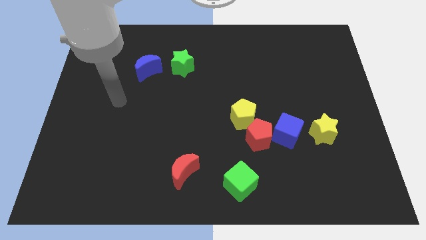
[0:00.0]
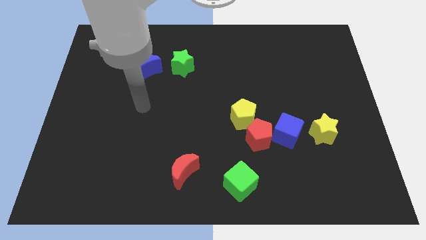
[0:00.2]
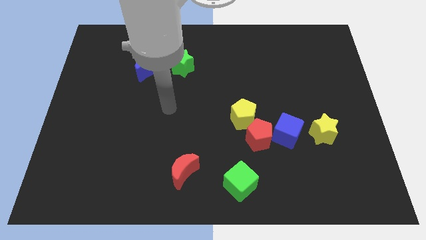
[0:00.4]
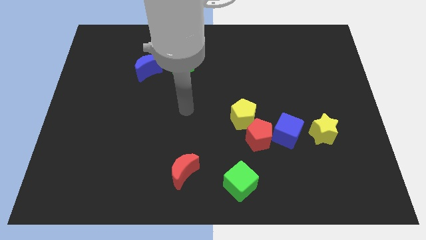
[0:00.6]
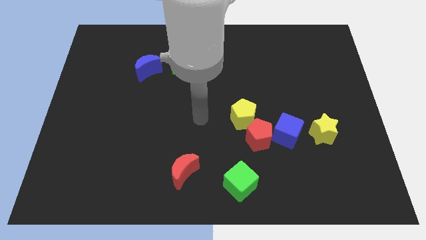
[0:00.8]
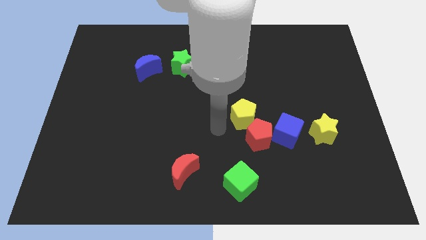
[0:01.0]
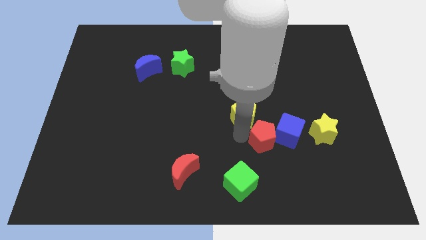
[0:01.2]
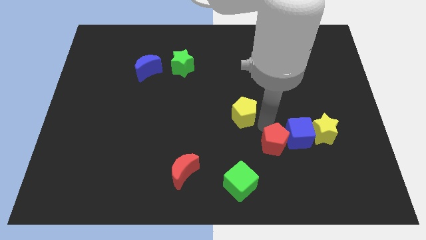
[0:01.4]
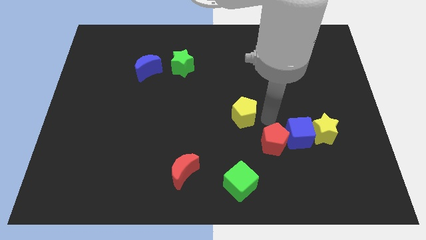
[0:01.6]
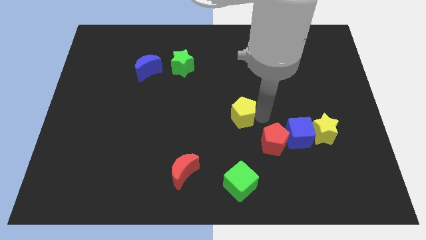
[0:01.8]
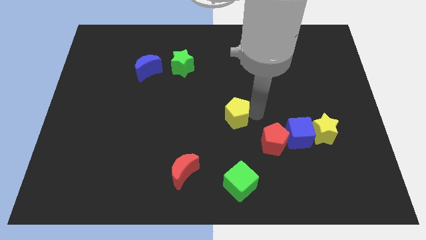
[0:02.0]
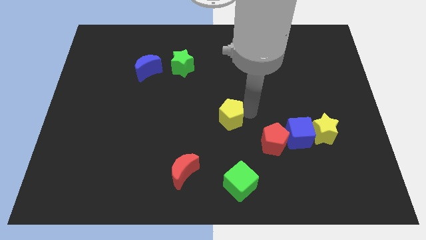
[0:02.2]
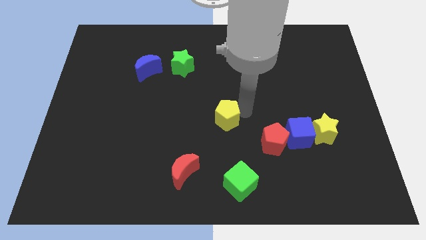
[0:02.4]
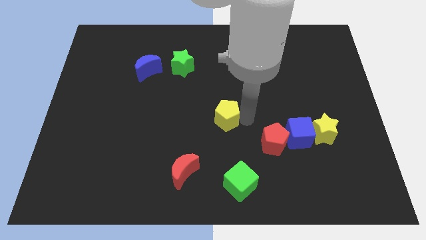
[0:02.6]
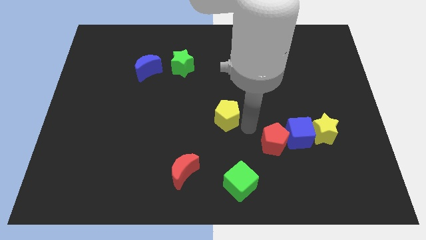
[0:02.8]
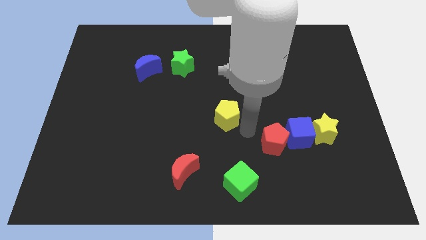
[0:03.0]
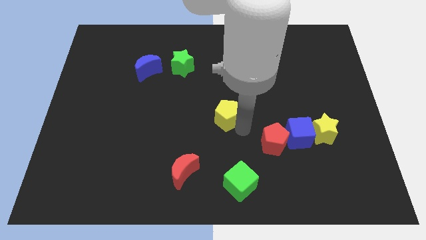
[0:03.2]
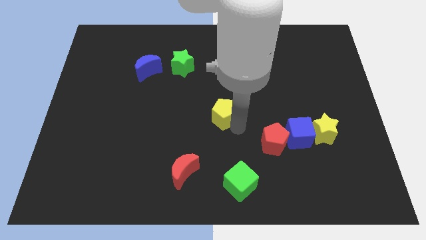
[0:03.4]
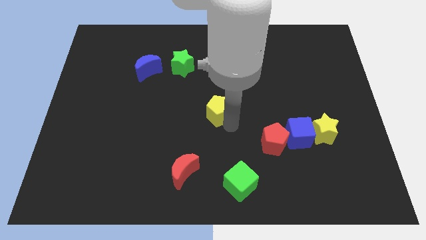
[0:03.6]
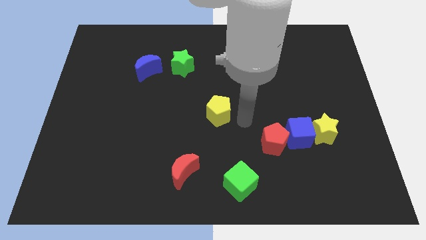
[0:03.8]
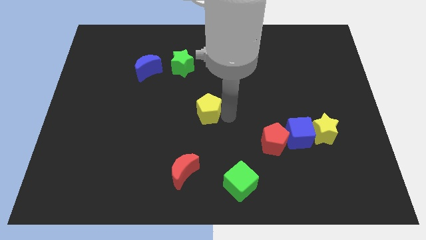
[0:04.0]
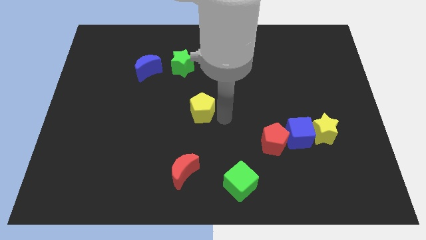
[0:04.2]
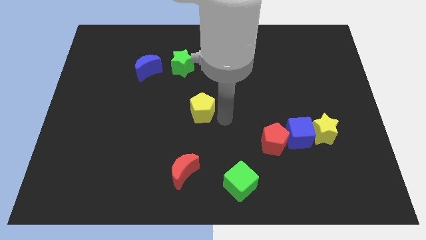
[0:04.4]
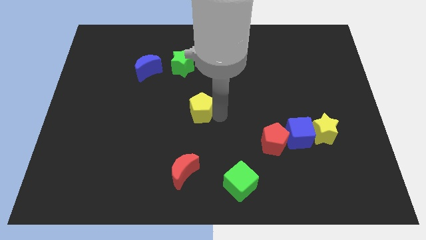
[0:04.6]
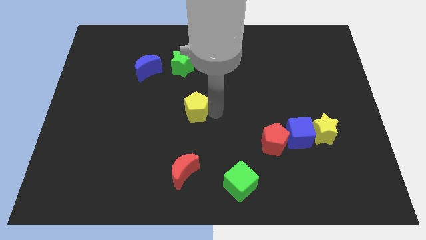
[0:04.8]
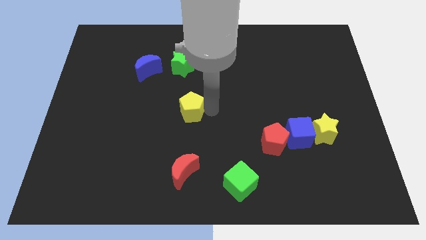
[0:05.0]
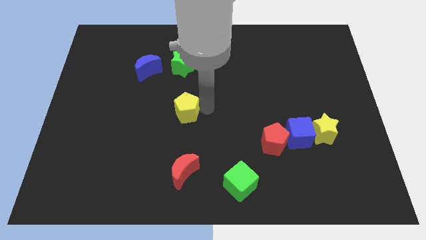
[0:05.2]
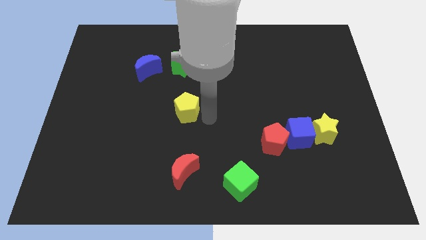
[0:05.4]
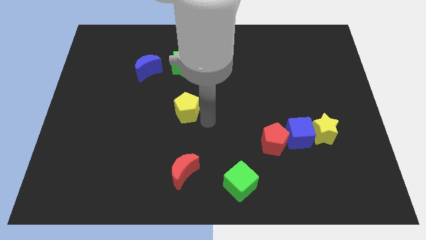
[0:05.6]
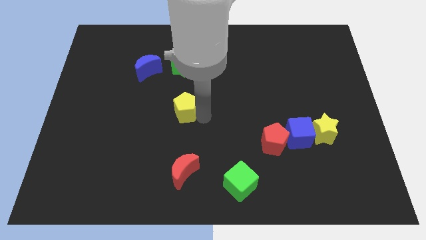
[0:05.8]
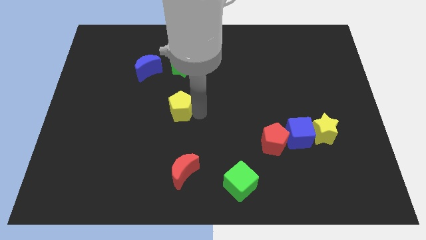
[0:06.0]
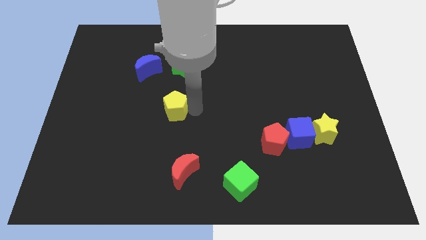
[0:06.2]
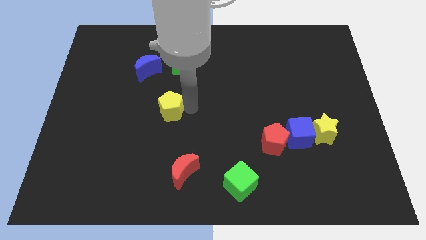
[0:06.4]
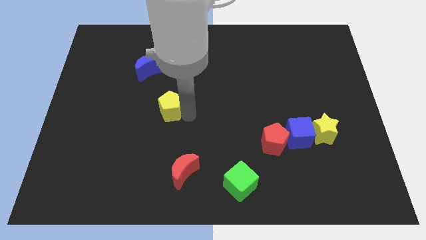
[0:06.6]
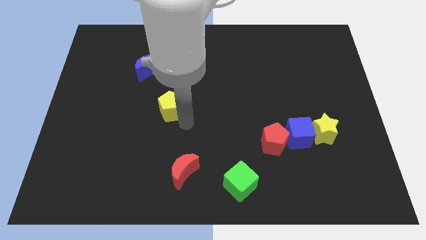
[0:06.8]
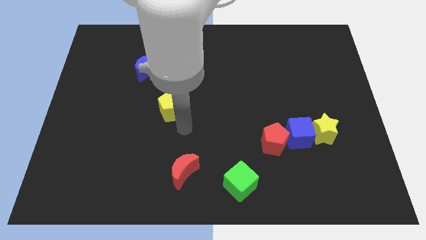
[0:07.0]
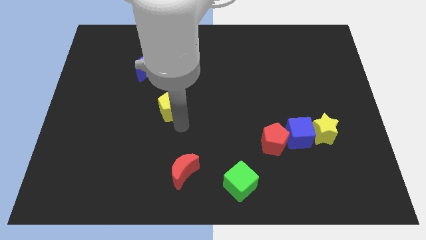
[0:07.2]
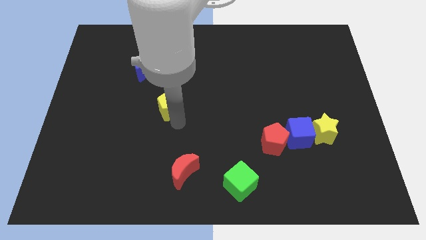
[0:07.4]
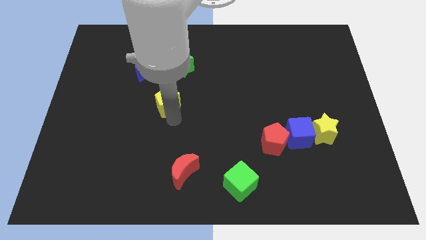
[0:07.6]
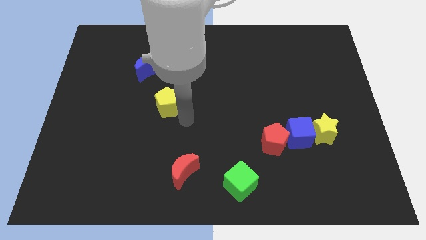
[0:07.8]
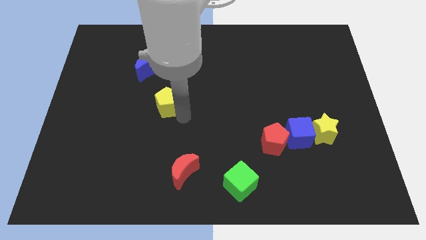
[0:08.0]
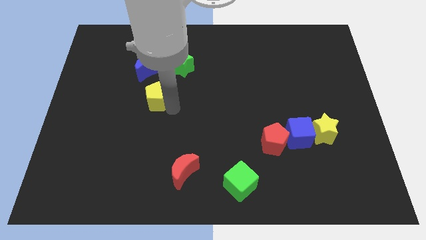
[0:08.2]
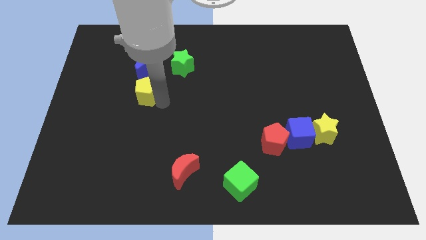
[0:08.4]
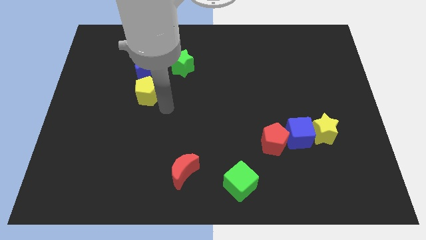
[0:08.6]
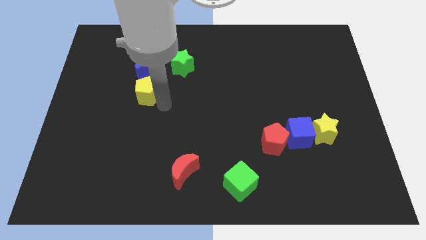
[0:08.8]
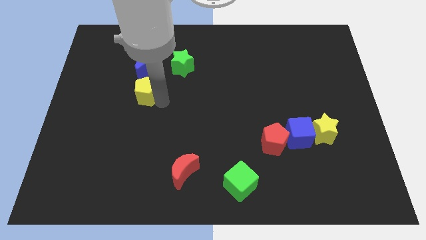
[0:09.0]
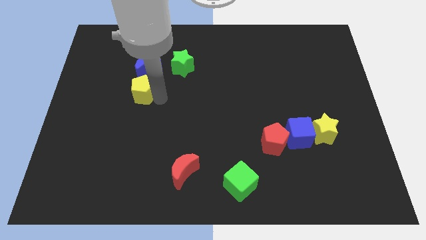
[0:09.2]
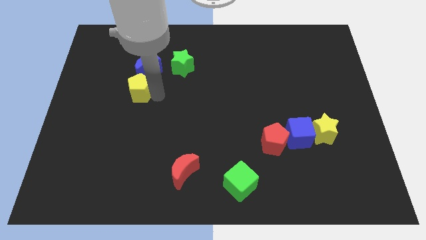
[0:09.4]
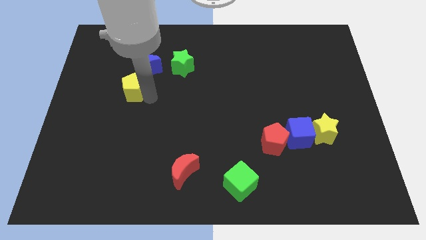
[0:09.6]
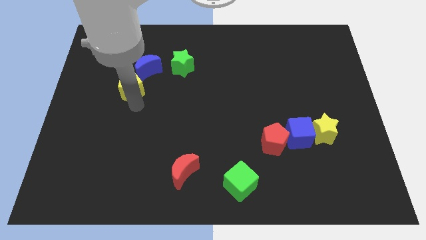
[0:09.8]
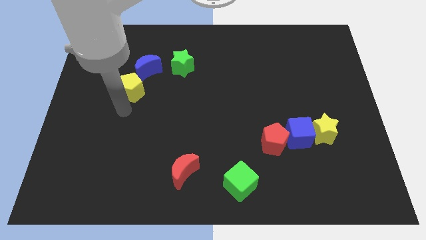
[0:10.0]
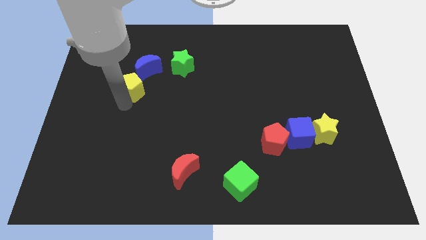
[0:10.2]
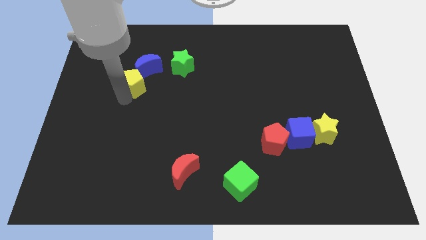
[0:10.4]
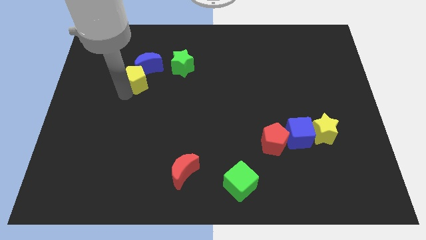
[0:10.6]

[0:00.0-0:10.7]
slide the yellow pentagon left of the green star

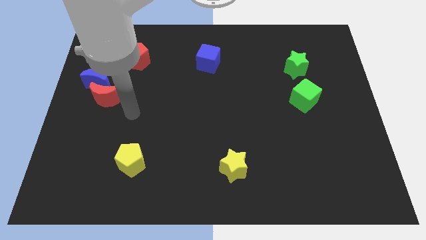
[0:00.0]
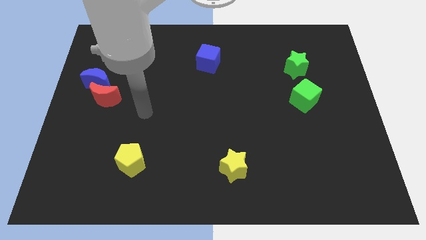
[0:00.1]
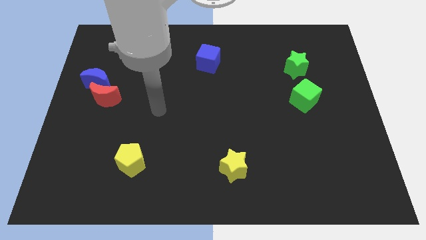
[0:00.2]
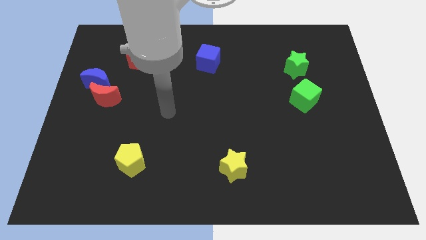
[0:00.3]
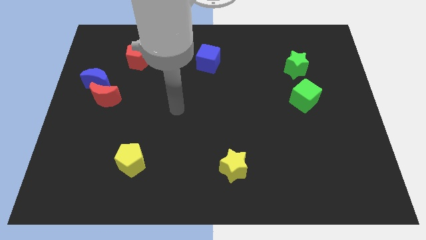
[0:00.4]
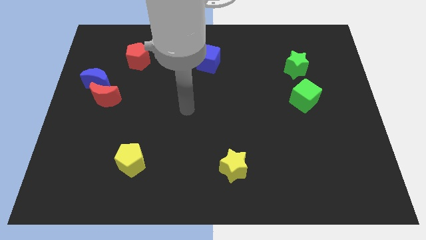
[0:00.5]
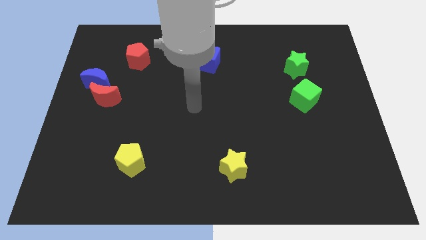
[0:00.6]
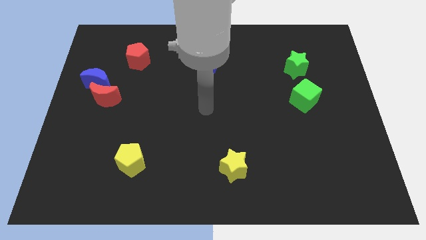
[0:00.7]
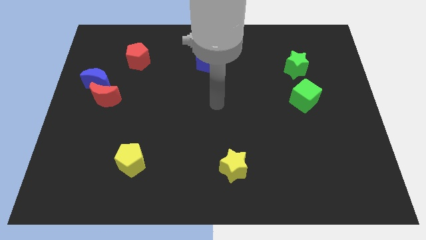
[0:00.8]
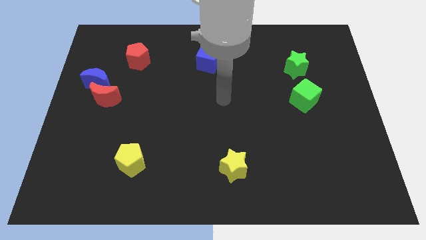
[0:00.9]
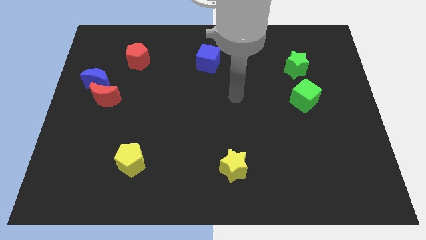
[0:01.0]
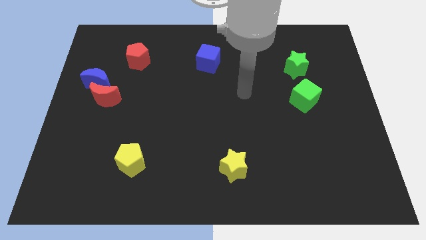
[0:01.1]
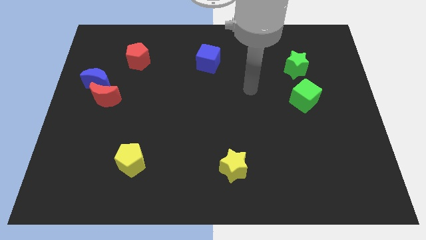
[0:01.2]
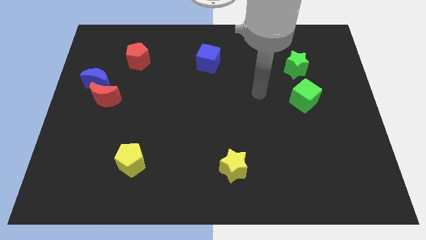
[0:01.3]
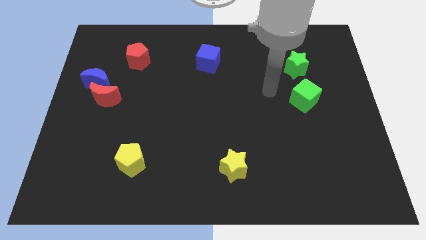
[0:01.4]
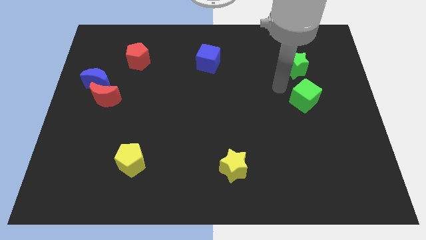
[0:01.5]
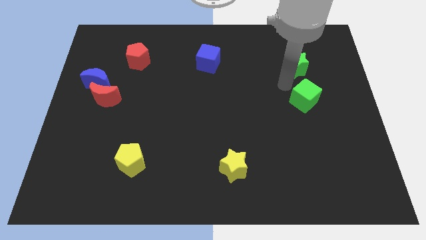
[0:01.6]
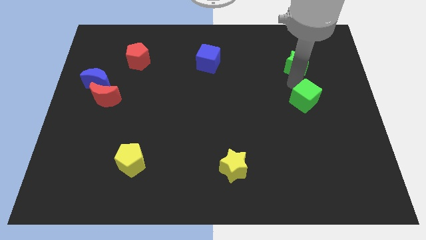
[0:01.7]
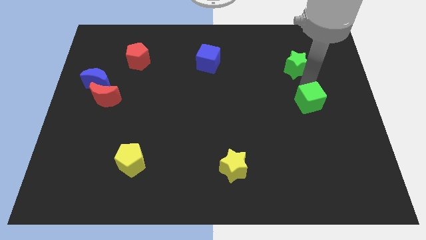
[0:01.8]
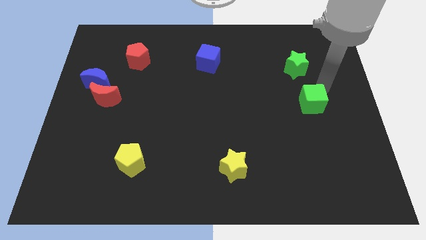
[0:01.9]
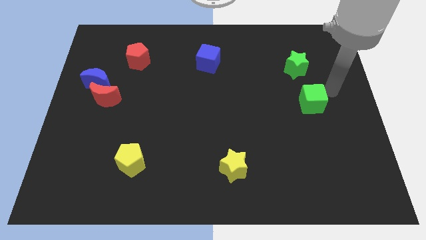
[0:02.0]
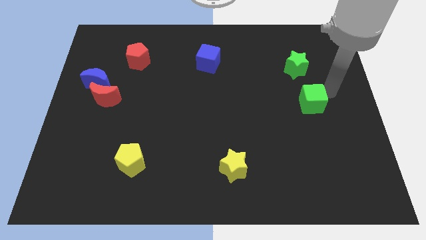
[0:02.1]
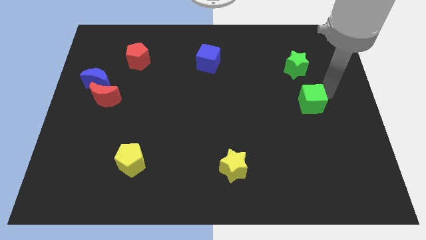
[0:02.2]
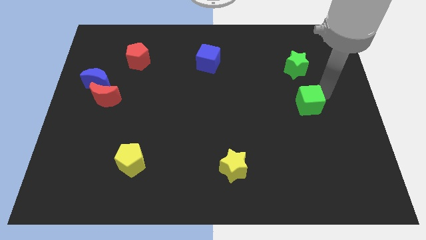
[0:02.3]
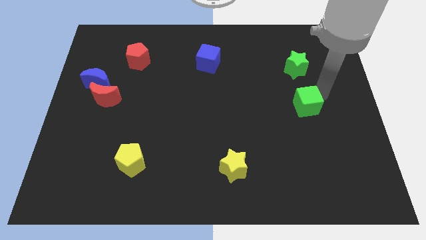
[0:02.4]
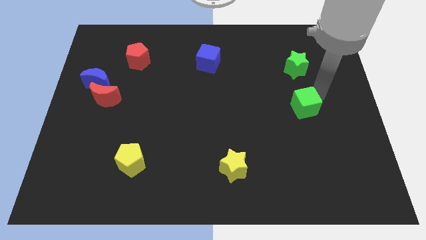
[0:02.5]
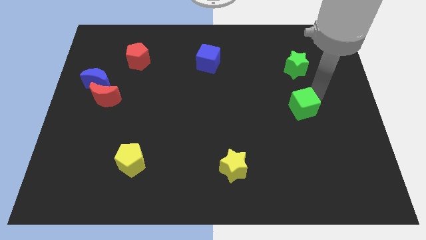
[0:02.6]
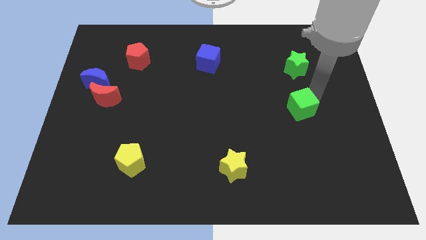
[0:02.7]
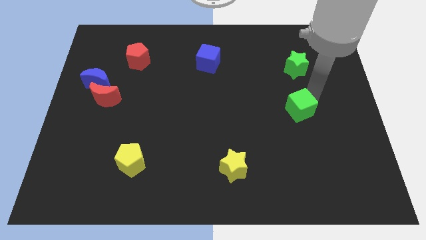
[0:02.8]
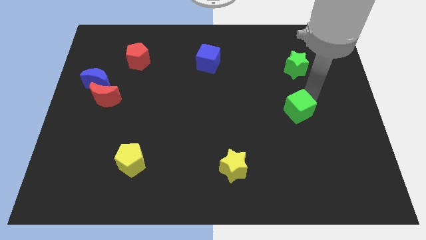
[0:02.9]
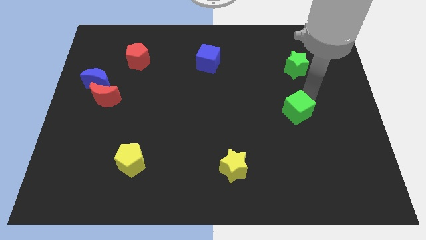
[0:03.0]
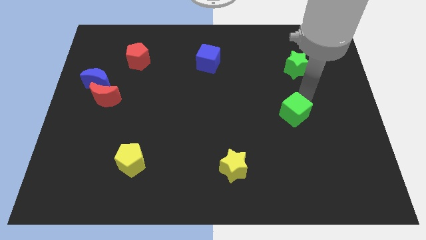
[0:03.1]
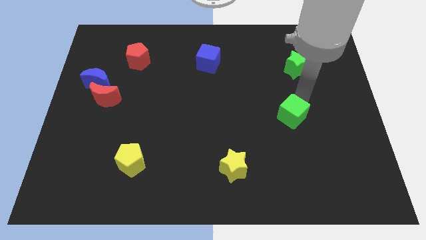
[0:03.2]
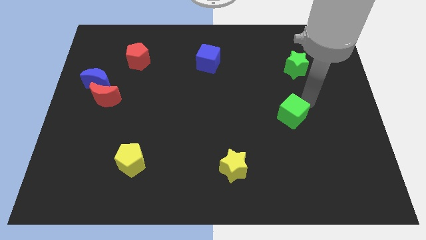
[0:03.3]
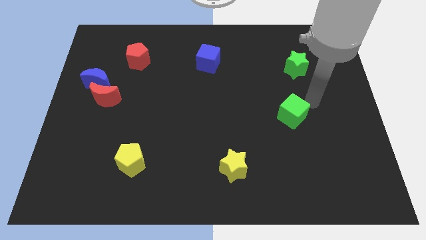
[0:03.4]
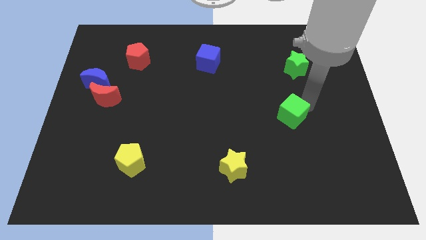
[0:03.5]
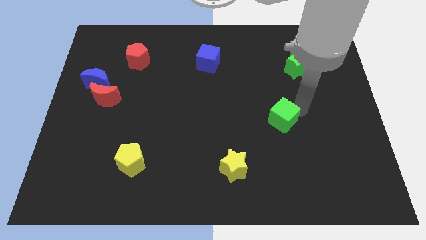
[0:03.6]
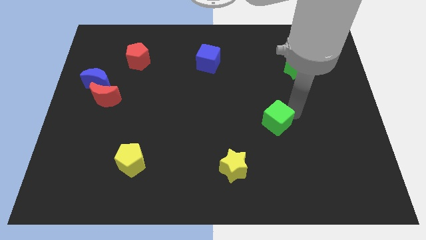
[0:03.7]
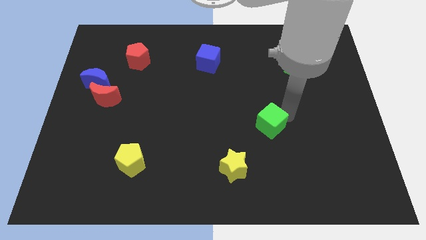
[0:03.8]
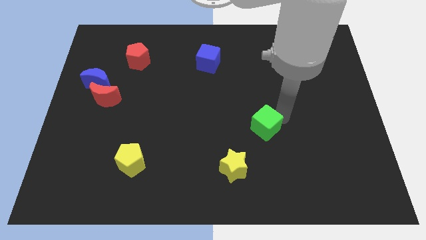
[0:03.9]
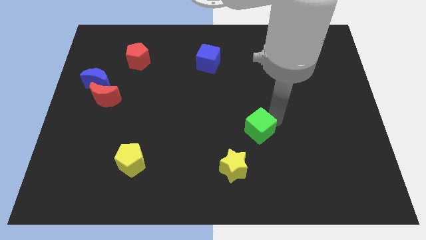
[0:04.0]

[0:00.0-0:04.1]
move the green cube to the top right of the yellow star
